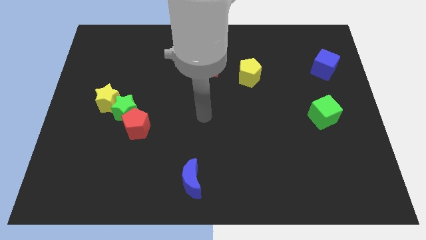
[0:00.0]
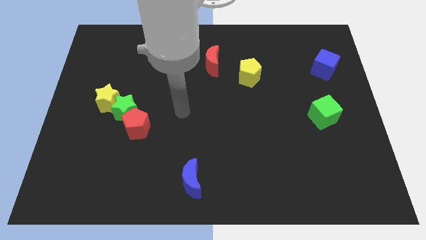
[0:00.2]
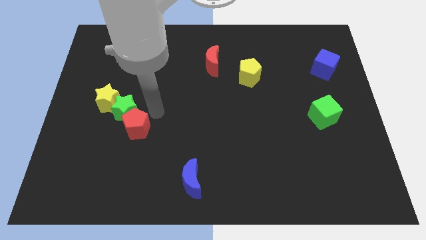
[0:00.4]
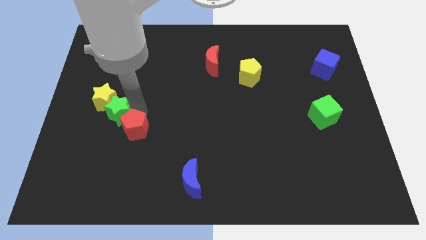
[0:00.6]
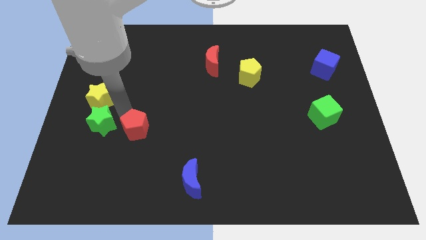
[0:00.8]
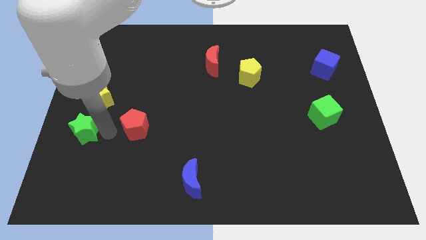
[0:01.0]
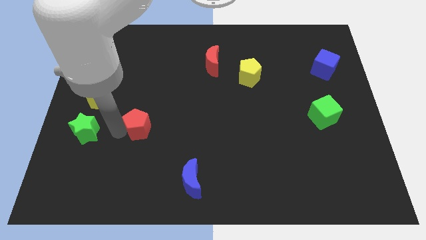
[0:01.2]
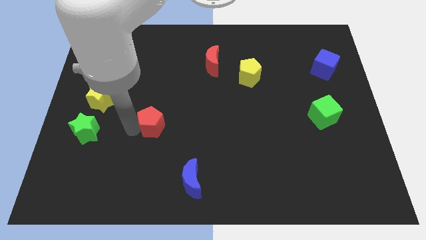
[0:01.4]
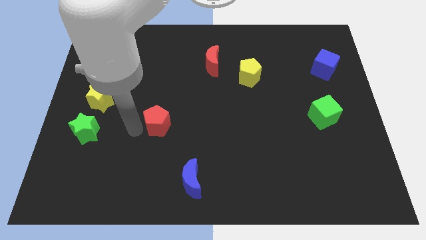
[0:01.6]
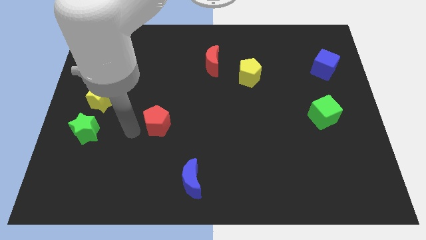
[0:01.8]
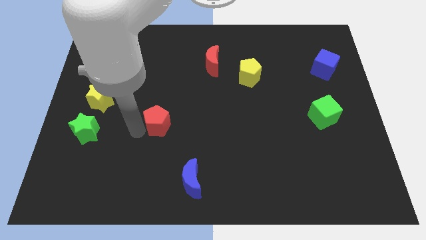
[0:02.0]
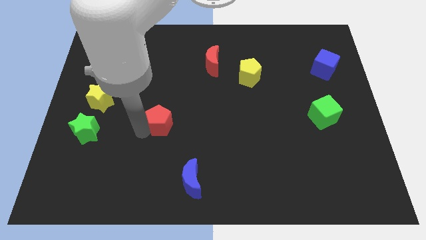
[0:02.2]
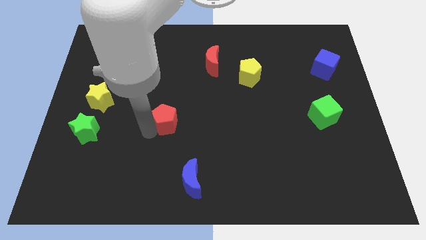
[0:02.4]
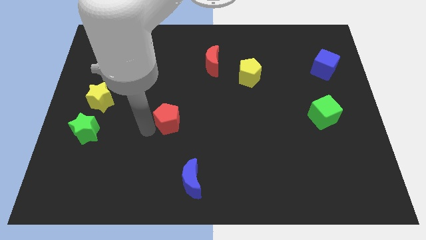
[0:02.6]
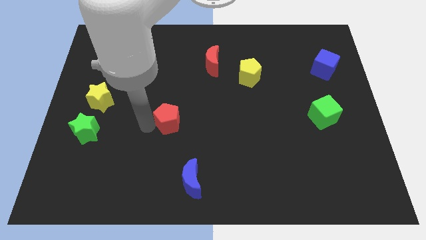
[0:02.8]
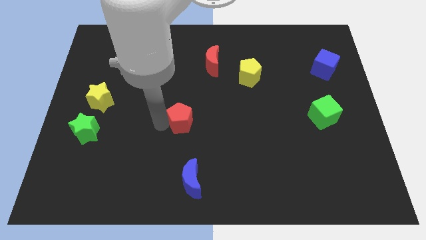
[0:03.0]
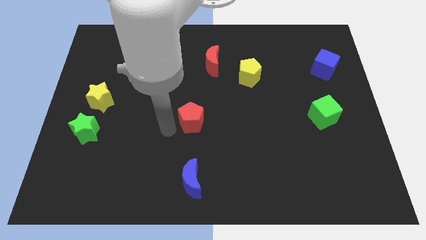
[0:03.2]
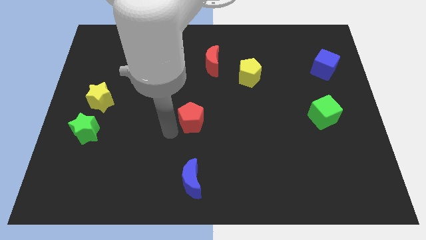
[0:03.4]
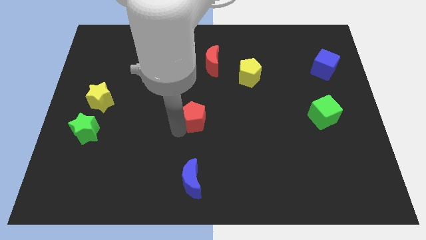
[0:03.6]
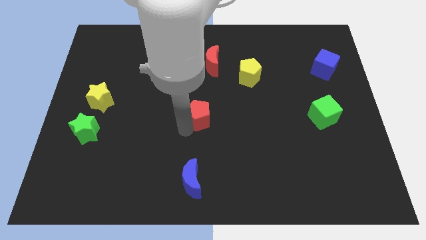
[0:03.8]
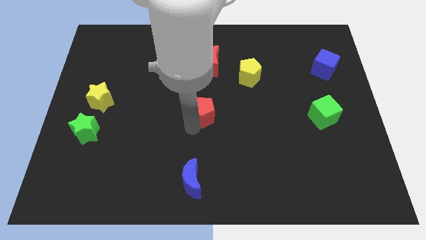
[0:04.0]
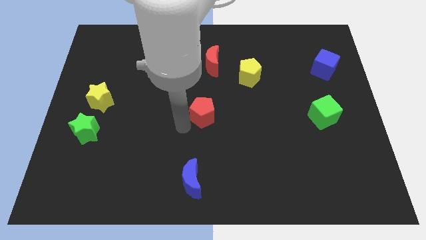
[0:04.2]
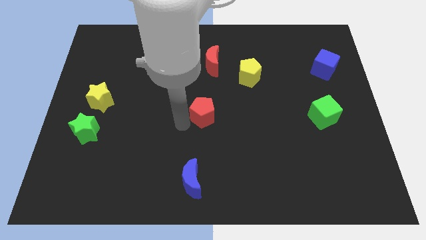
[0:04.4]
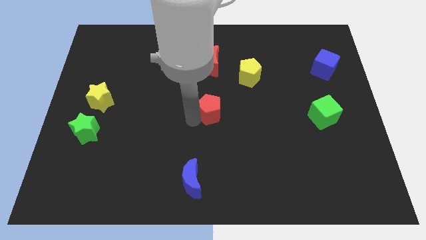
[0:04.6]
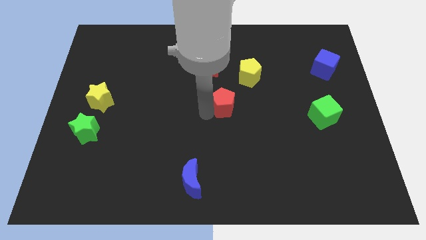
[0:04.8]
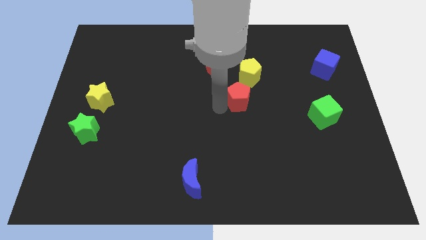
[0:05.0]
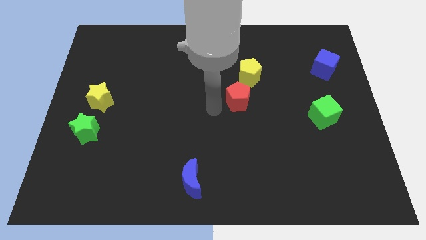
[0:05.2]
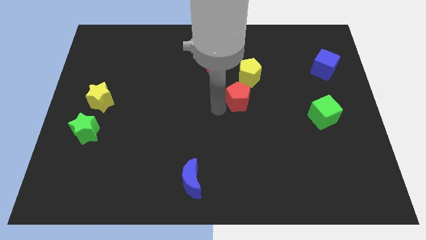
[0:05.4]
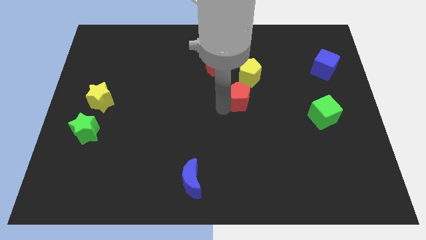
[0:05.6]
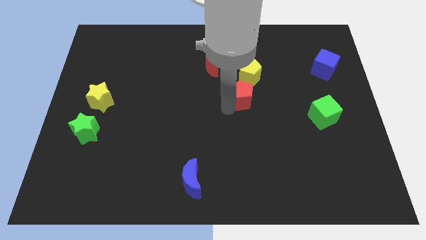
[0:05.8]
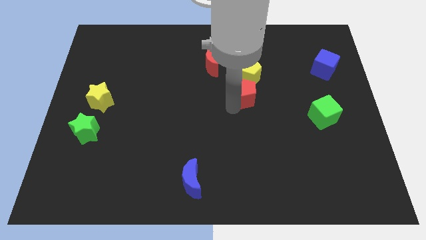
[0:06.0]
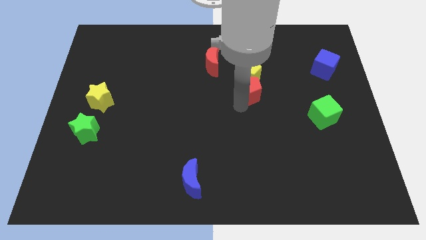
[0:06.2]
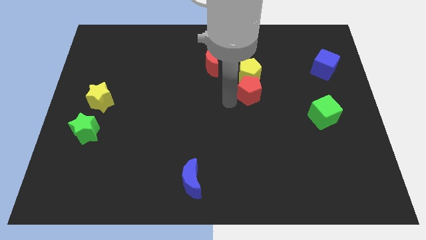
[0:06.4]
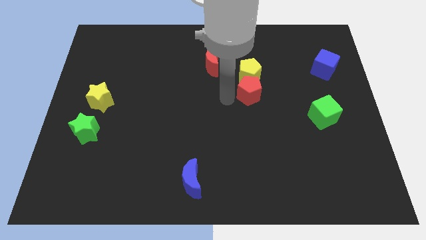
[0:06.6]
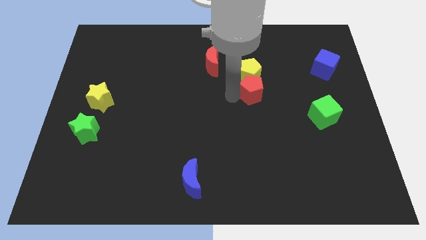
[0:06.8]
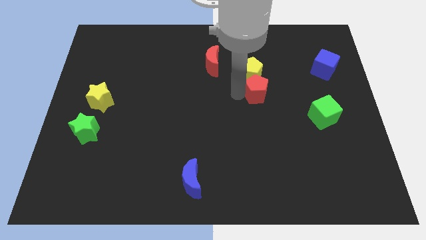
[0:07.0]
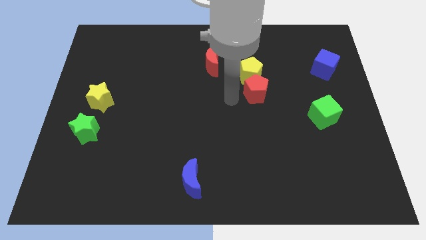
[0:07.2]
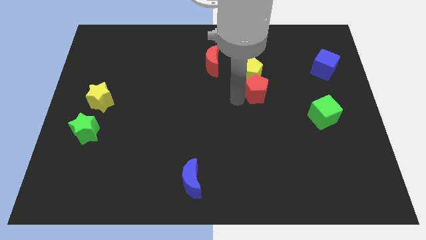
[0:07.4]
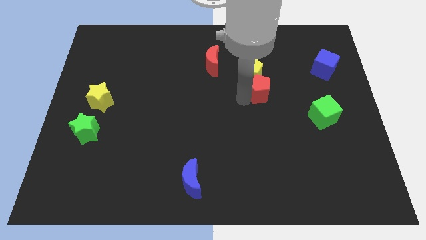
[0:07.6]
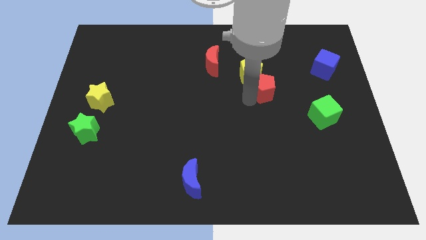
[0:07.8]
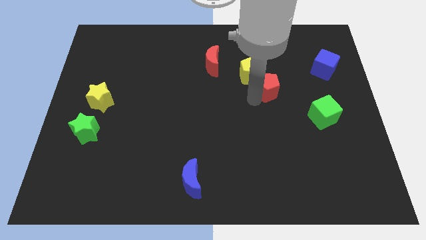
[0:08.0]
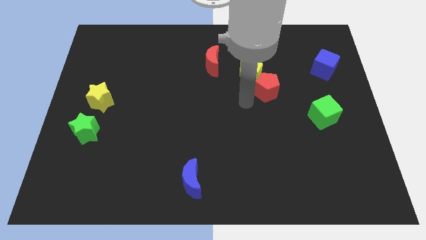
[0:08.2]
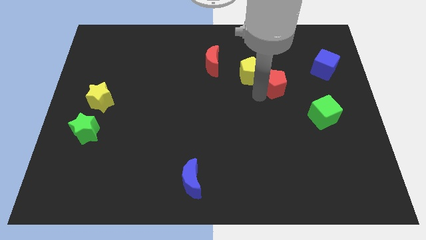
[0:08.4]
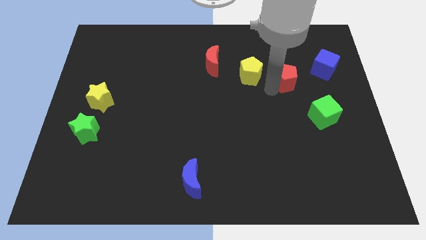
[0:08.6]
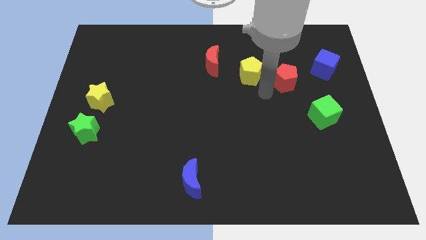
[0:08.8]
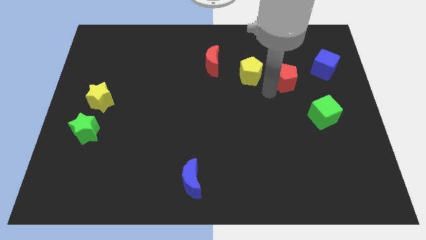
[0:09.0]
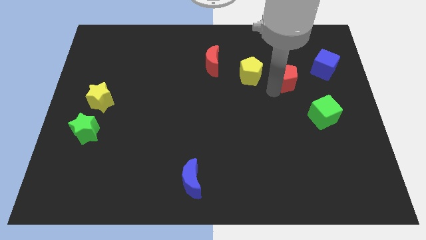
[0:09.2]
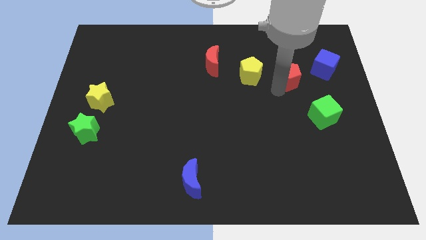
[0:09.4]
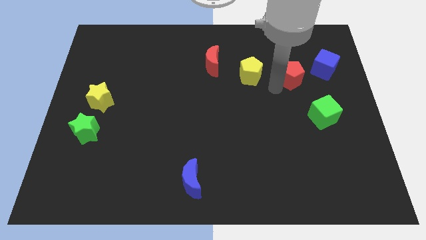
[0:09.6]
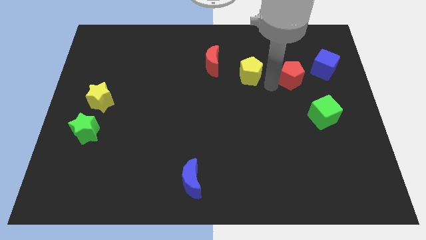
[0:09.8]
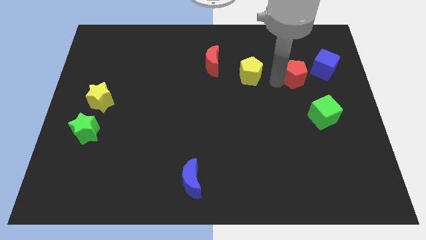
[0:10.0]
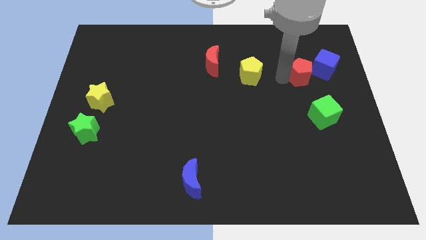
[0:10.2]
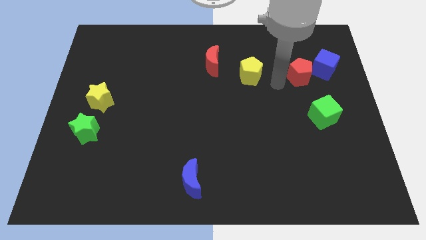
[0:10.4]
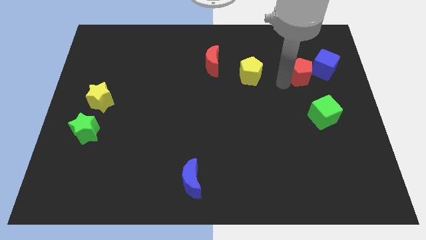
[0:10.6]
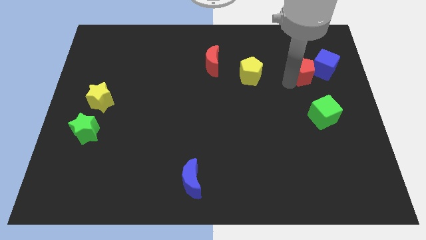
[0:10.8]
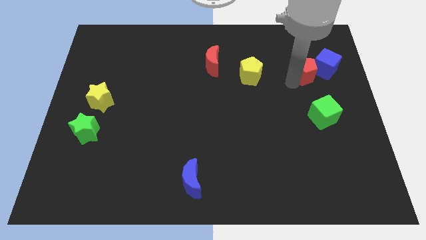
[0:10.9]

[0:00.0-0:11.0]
move the red pentagon close to the blue cube

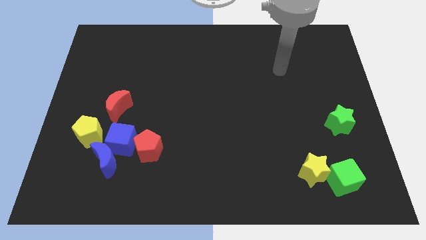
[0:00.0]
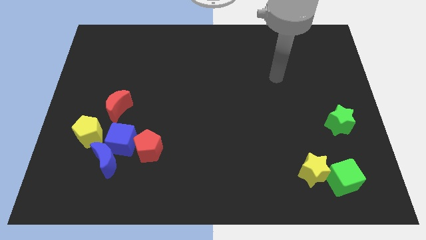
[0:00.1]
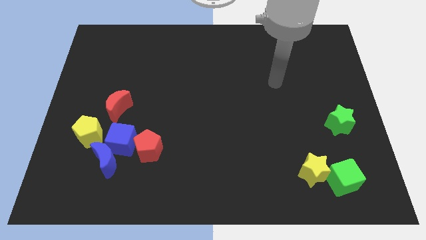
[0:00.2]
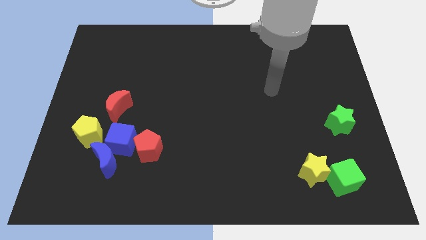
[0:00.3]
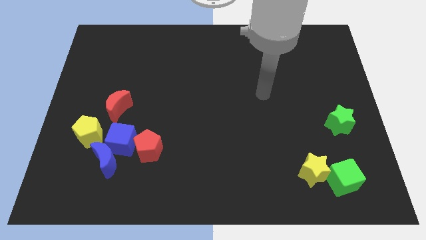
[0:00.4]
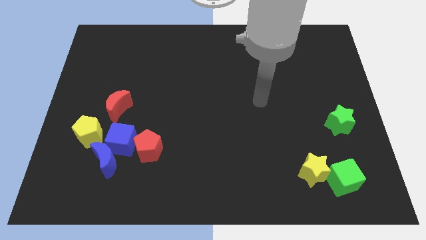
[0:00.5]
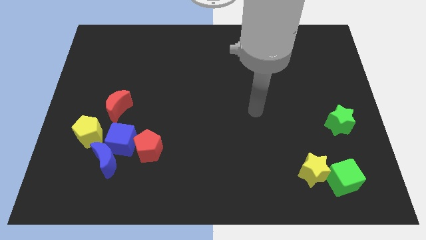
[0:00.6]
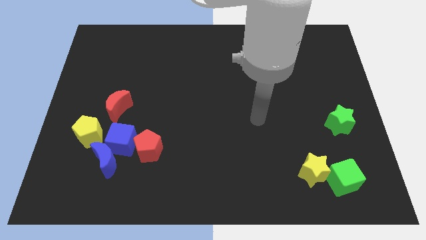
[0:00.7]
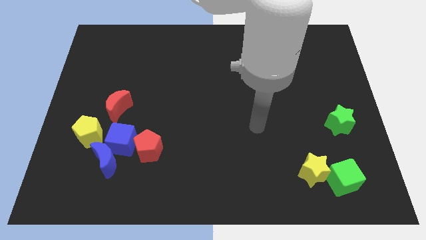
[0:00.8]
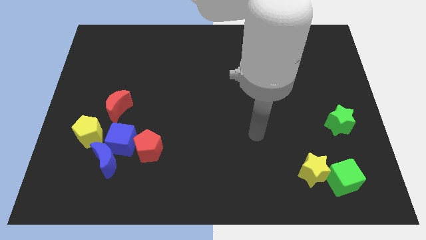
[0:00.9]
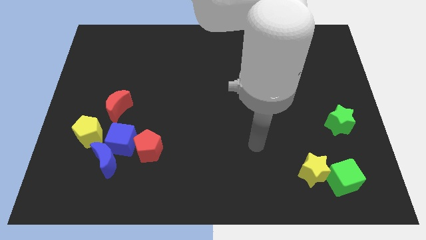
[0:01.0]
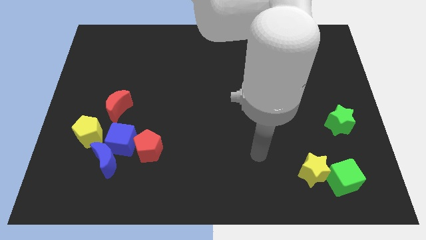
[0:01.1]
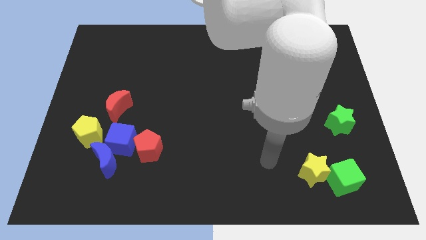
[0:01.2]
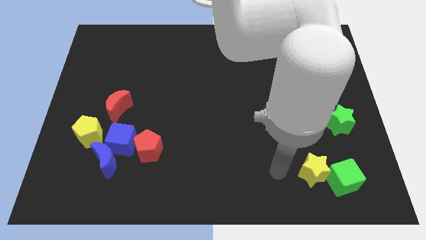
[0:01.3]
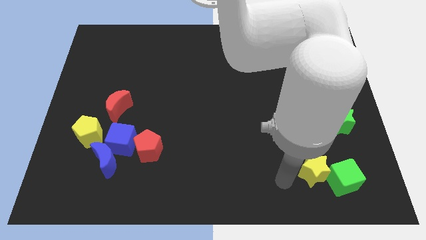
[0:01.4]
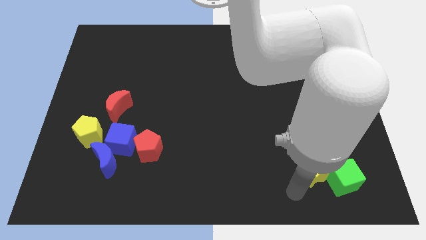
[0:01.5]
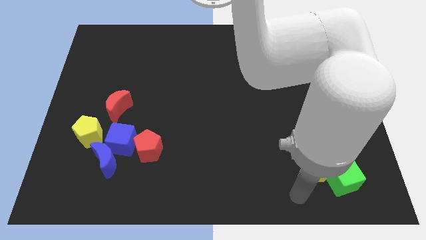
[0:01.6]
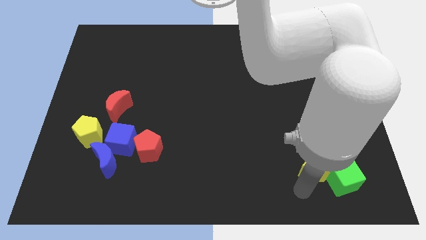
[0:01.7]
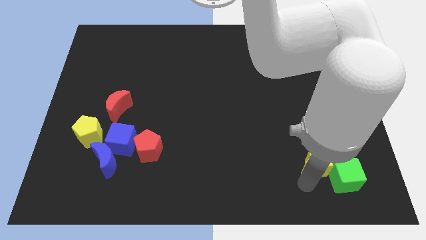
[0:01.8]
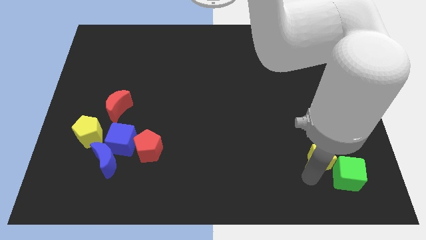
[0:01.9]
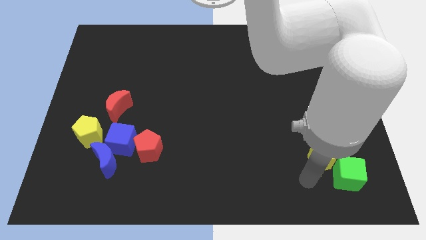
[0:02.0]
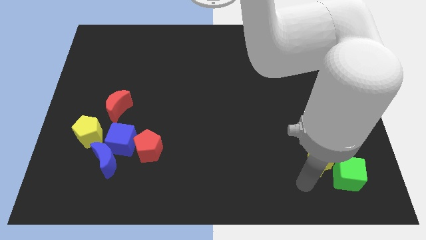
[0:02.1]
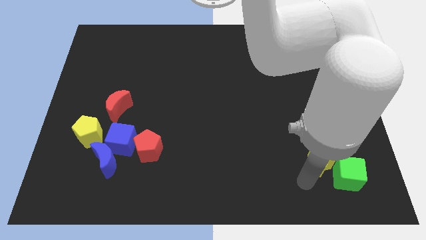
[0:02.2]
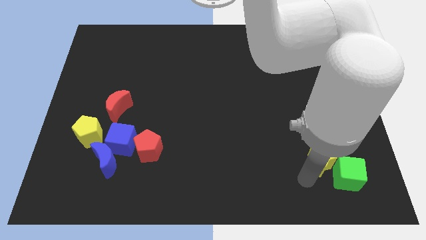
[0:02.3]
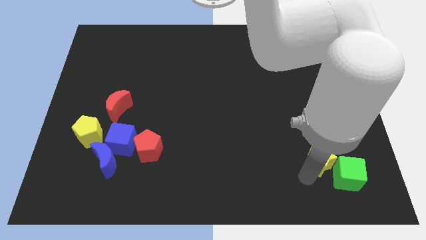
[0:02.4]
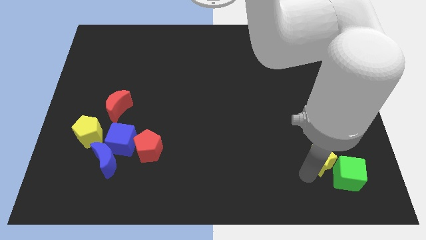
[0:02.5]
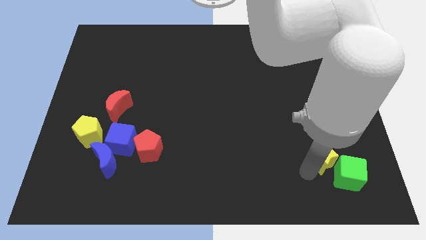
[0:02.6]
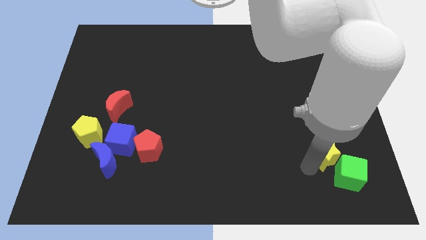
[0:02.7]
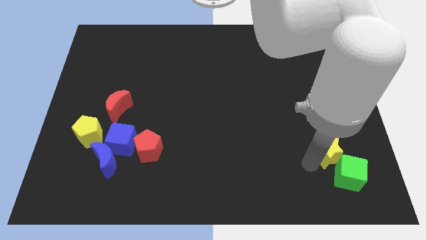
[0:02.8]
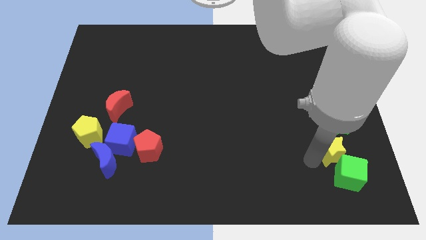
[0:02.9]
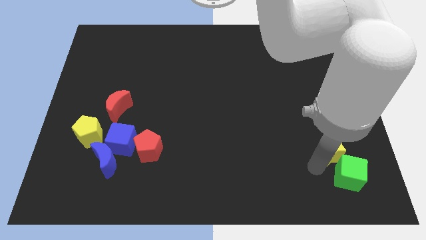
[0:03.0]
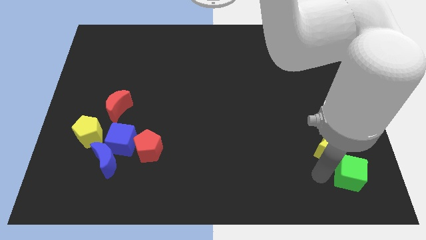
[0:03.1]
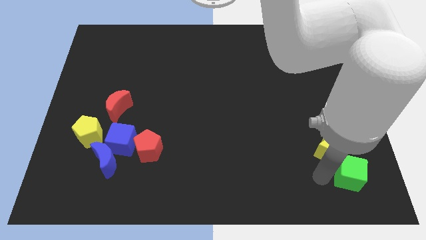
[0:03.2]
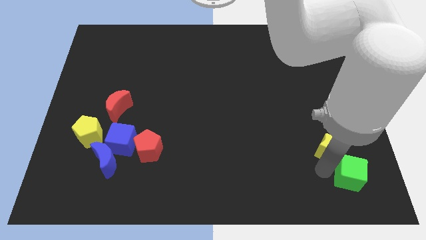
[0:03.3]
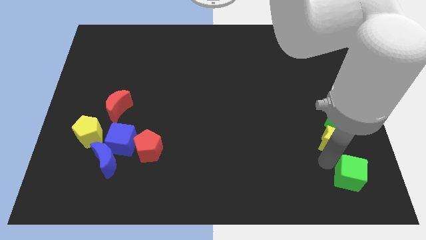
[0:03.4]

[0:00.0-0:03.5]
push the yellow star close to the green star
